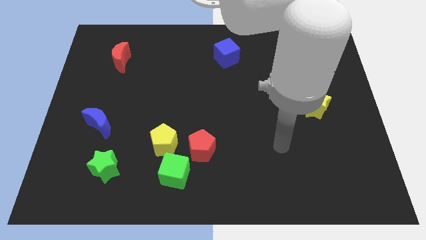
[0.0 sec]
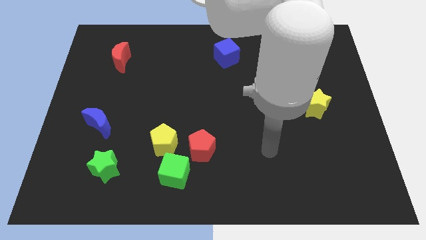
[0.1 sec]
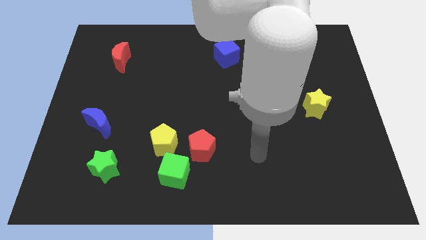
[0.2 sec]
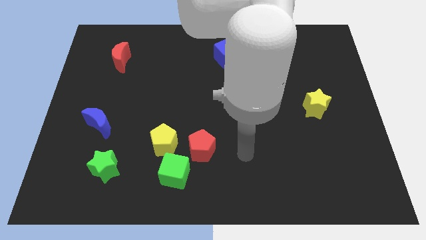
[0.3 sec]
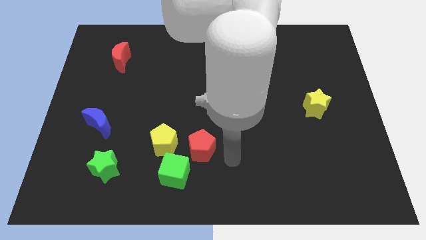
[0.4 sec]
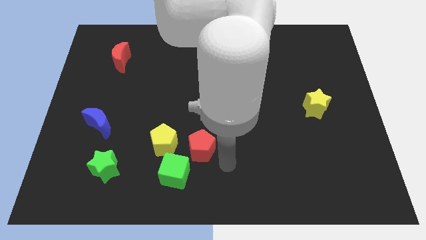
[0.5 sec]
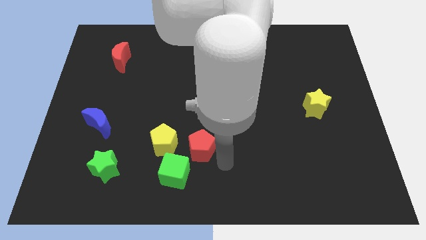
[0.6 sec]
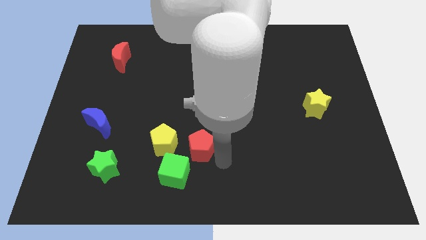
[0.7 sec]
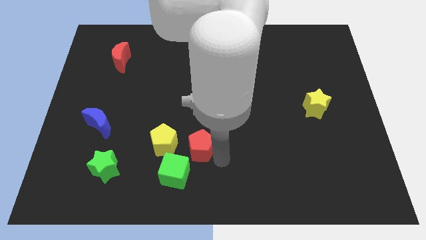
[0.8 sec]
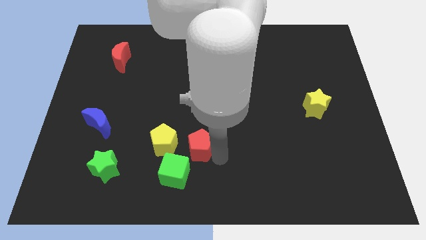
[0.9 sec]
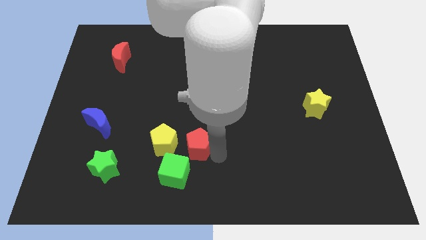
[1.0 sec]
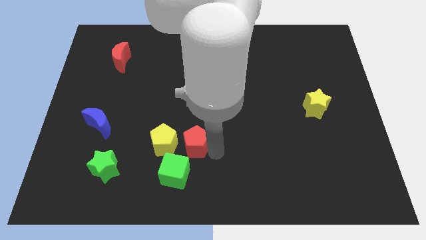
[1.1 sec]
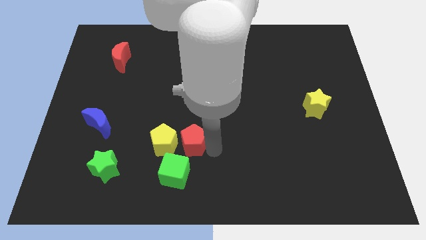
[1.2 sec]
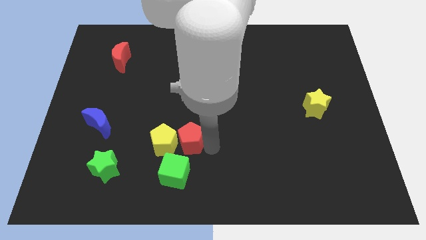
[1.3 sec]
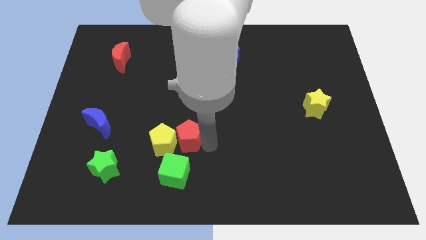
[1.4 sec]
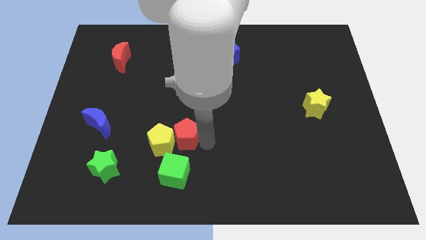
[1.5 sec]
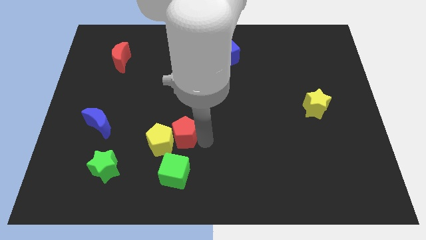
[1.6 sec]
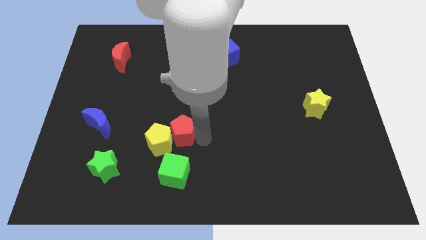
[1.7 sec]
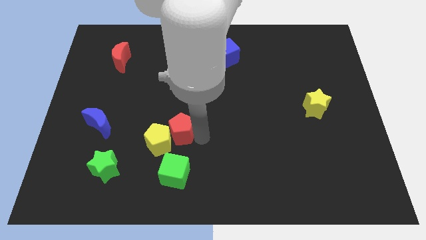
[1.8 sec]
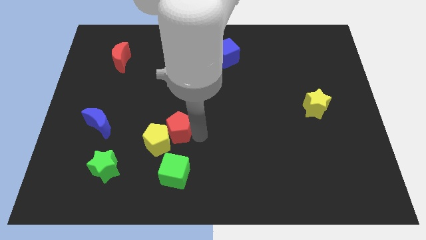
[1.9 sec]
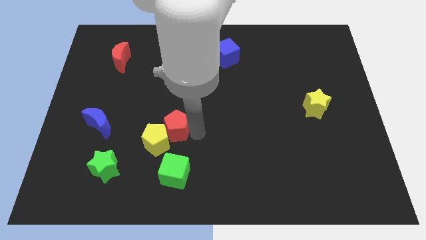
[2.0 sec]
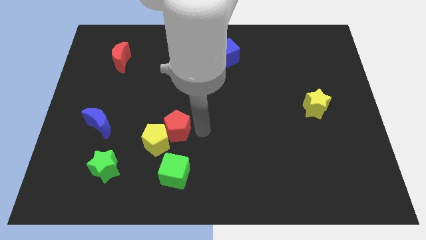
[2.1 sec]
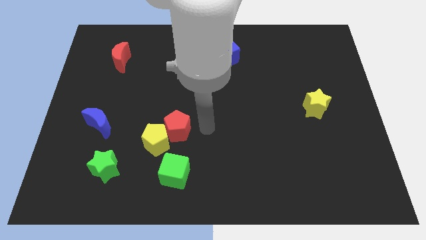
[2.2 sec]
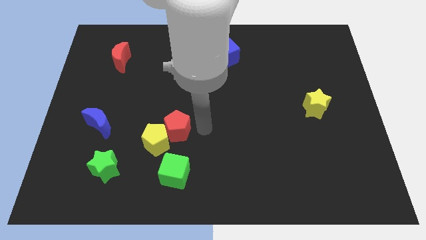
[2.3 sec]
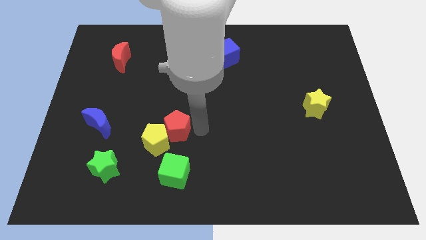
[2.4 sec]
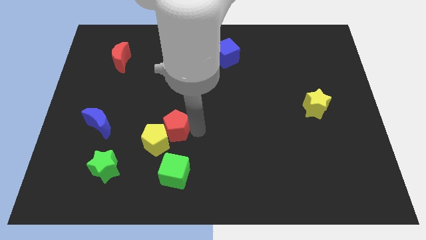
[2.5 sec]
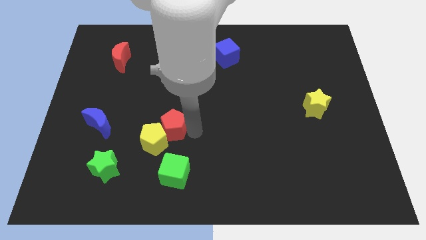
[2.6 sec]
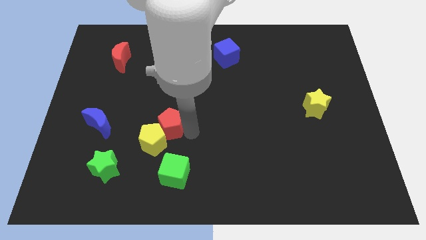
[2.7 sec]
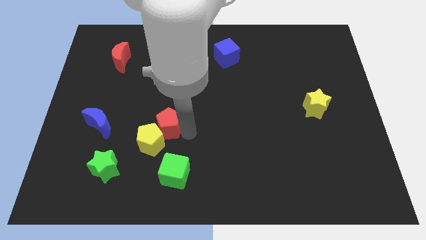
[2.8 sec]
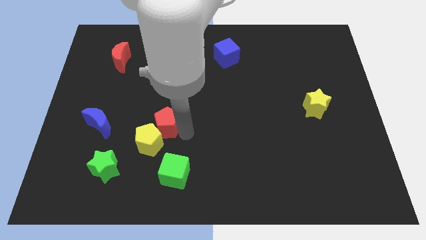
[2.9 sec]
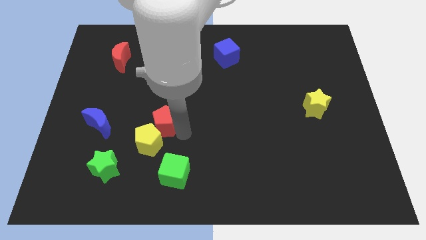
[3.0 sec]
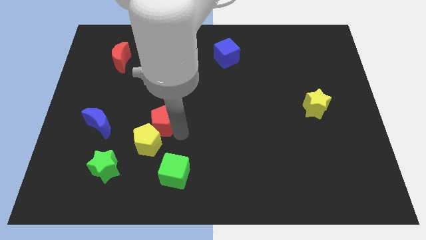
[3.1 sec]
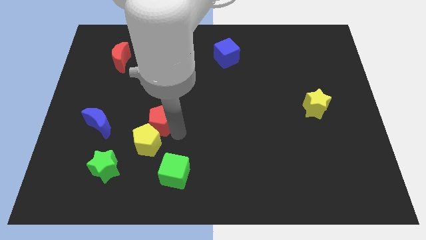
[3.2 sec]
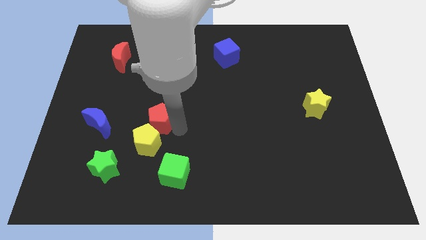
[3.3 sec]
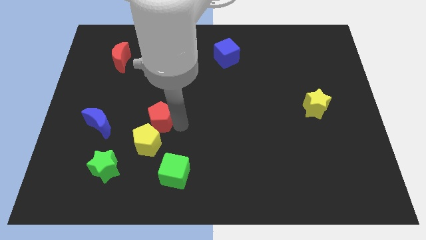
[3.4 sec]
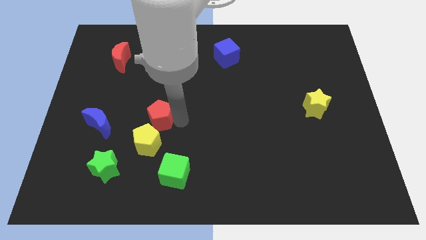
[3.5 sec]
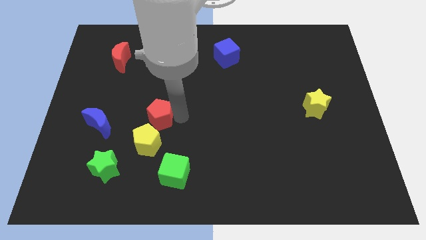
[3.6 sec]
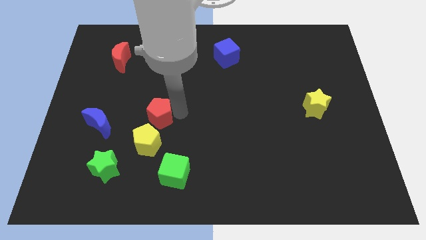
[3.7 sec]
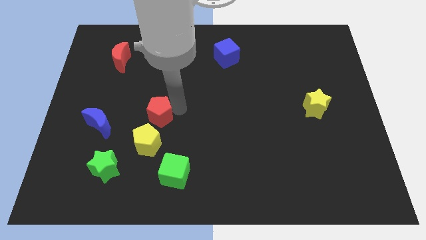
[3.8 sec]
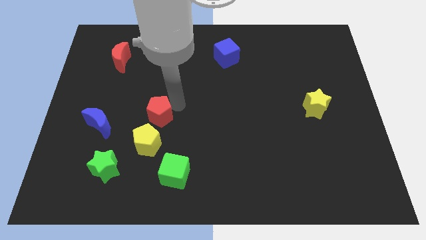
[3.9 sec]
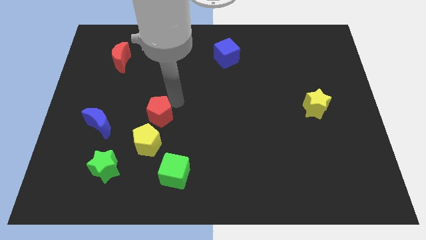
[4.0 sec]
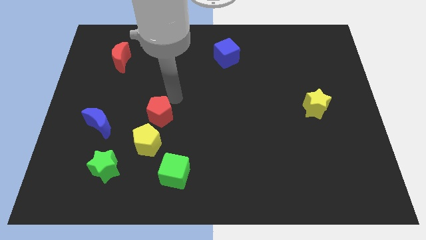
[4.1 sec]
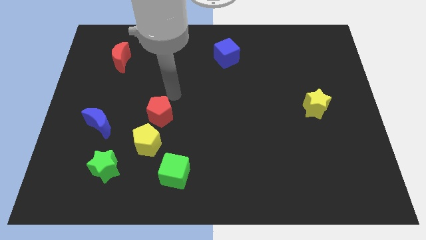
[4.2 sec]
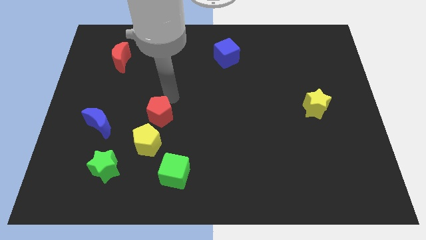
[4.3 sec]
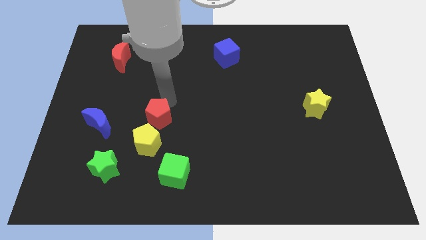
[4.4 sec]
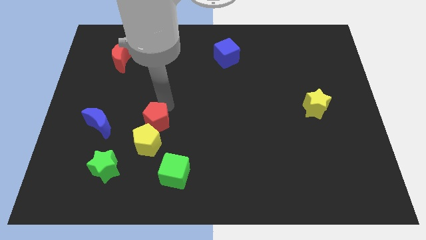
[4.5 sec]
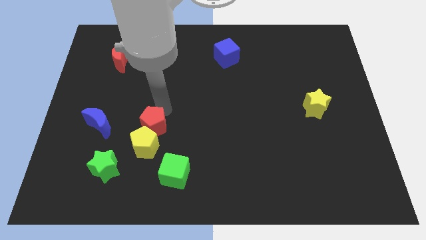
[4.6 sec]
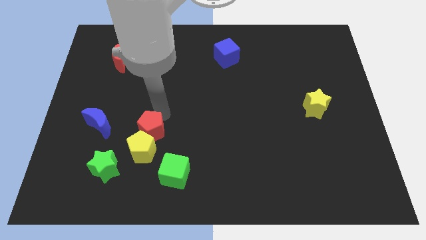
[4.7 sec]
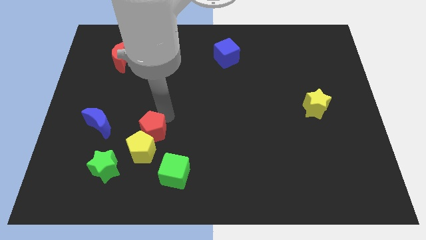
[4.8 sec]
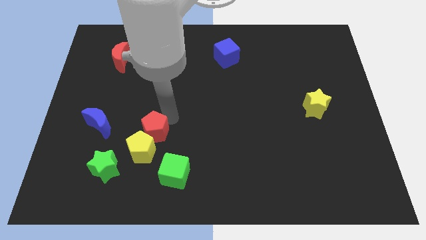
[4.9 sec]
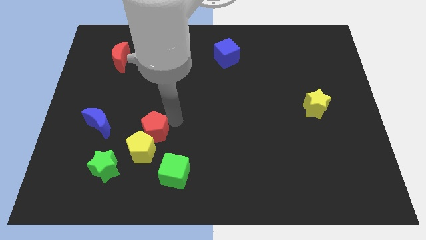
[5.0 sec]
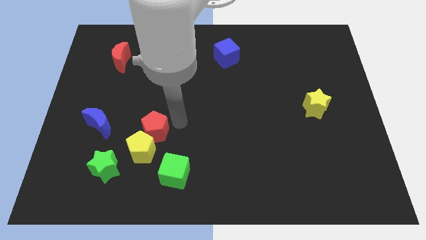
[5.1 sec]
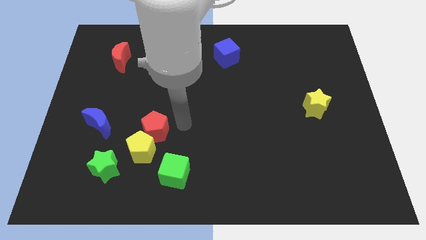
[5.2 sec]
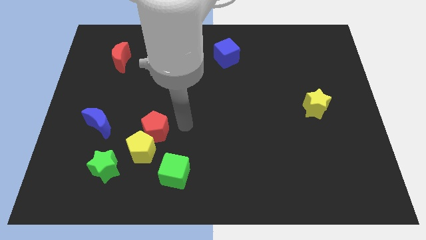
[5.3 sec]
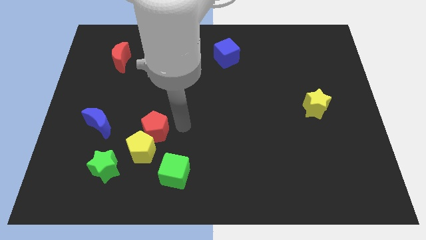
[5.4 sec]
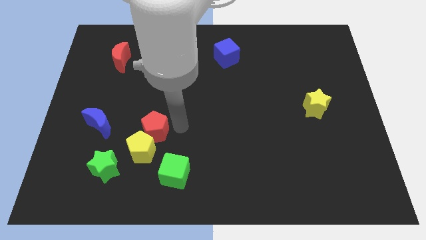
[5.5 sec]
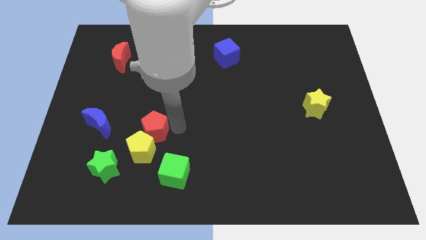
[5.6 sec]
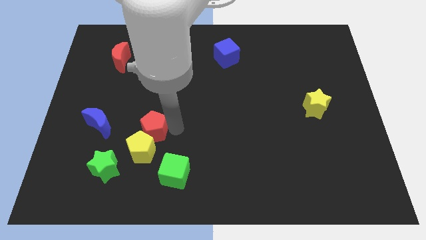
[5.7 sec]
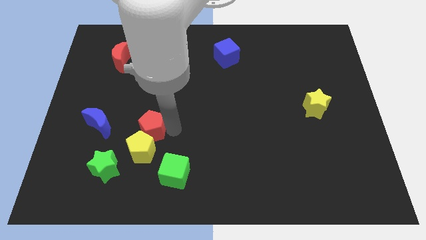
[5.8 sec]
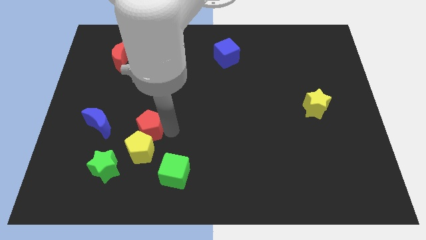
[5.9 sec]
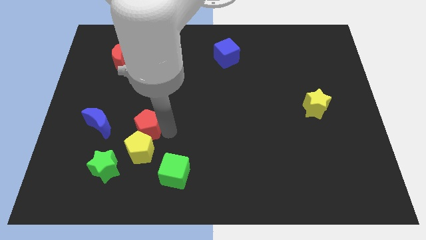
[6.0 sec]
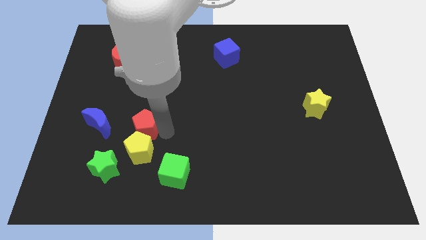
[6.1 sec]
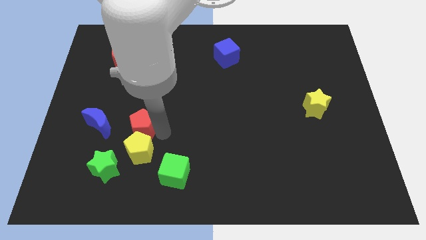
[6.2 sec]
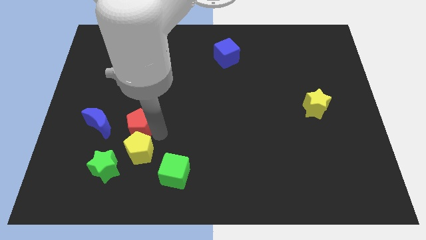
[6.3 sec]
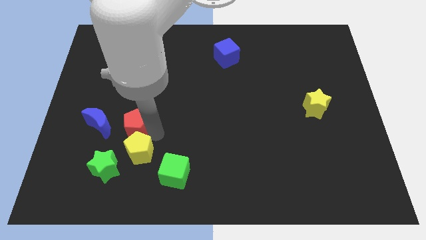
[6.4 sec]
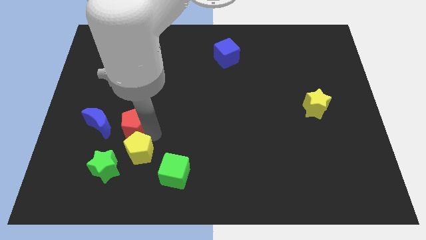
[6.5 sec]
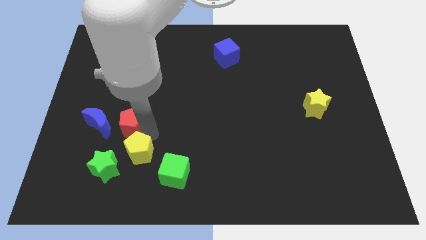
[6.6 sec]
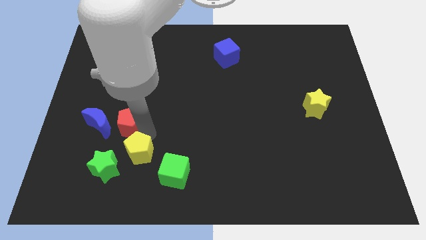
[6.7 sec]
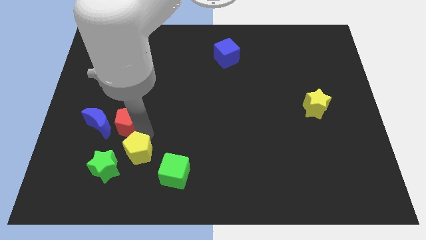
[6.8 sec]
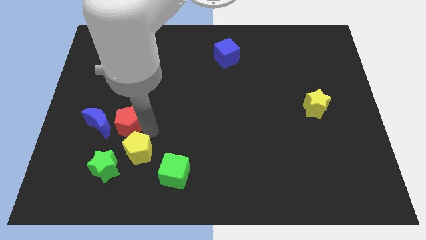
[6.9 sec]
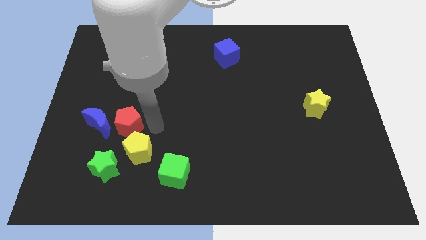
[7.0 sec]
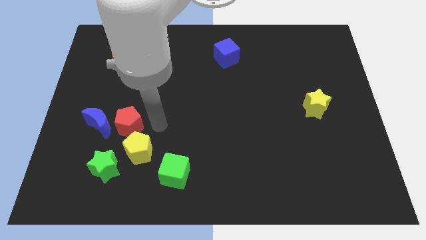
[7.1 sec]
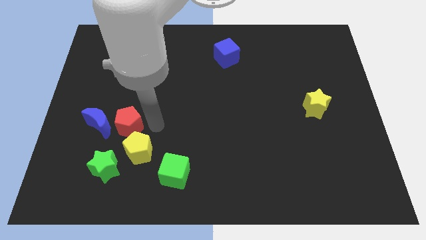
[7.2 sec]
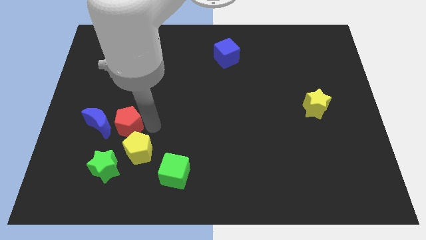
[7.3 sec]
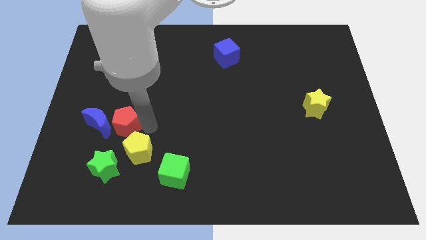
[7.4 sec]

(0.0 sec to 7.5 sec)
slide the red pentagon towards the blue moon
